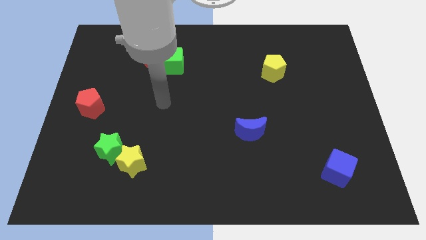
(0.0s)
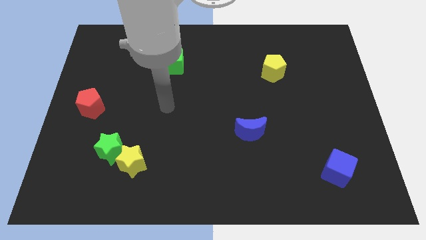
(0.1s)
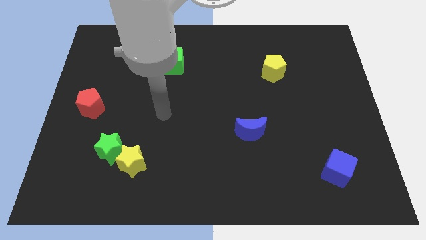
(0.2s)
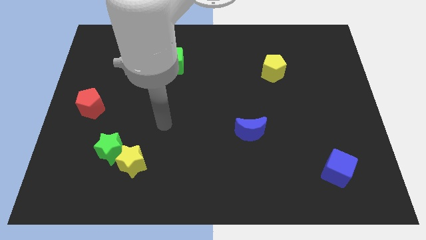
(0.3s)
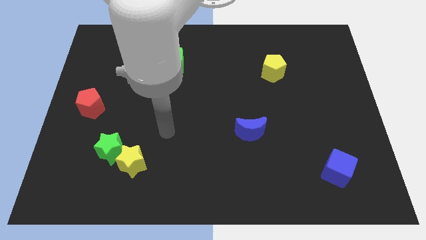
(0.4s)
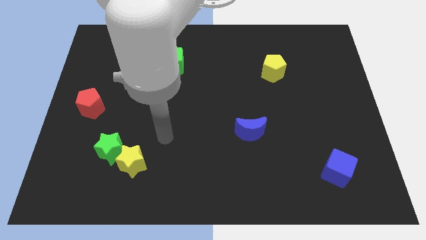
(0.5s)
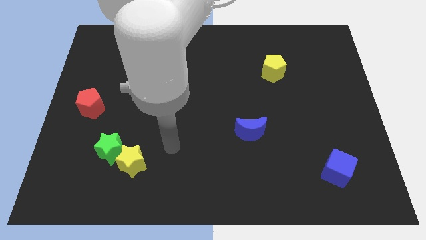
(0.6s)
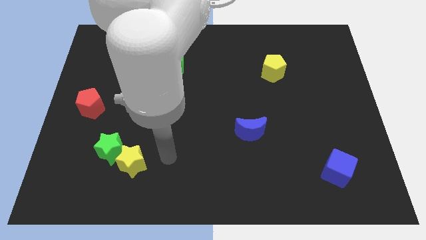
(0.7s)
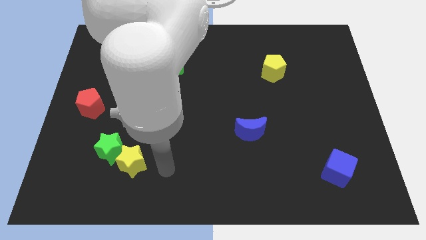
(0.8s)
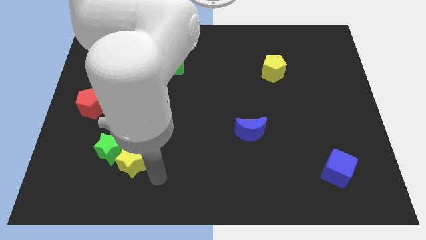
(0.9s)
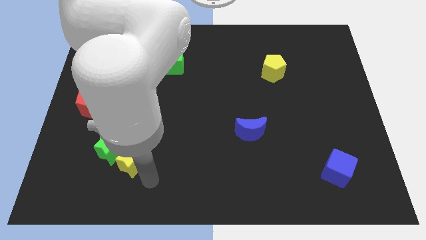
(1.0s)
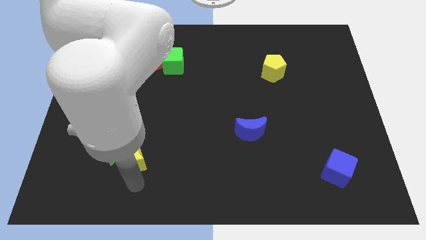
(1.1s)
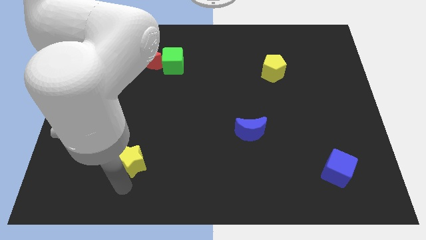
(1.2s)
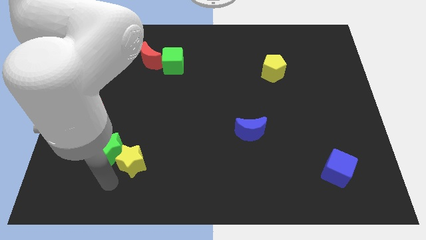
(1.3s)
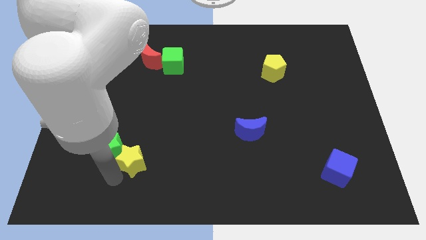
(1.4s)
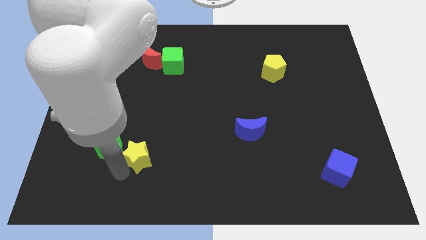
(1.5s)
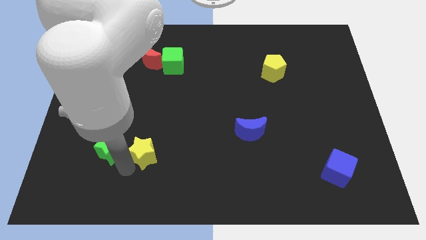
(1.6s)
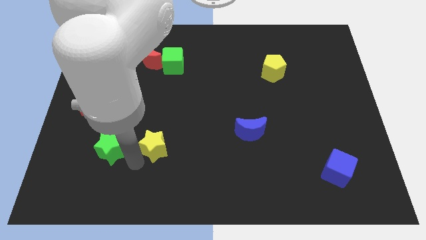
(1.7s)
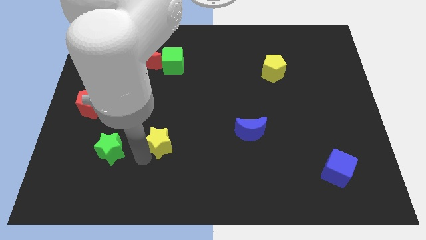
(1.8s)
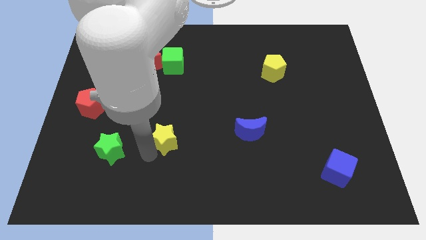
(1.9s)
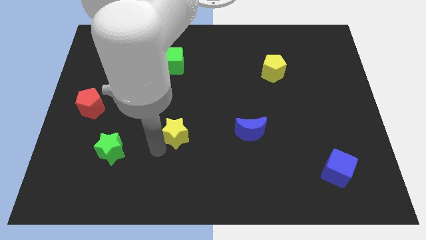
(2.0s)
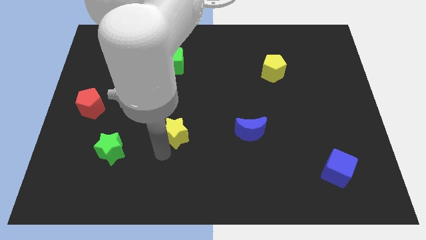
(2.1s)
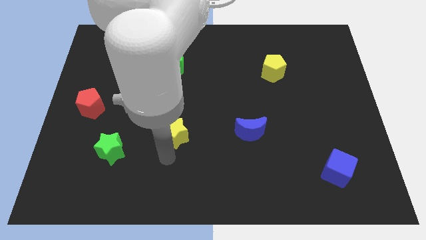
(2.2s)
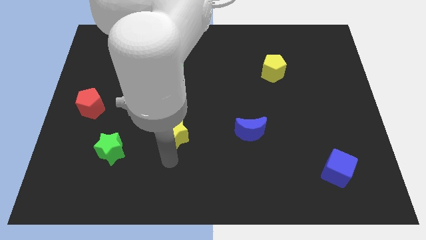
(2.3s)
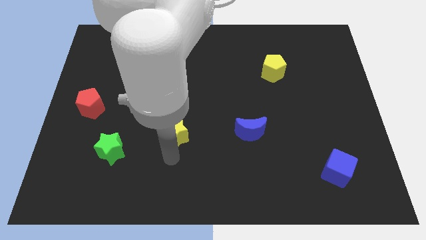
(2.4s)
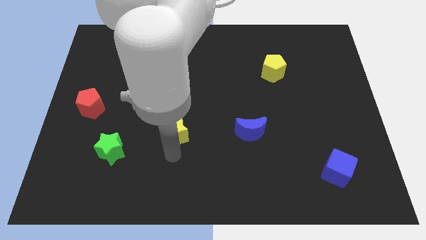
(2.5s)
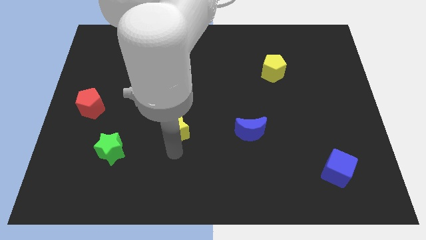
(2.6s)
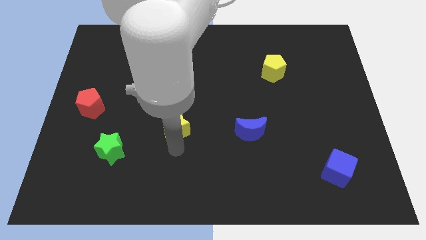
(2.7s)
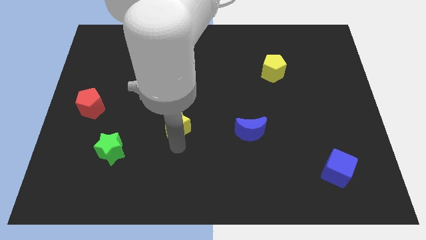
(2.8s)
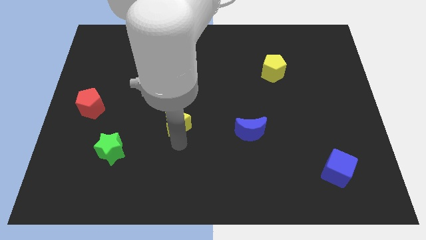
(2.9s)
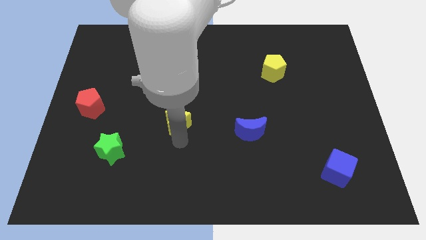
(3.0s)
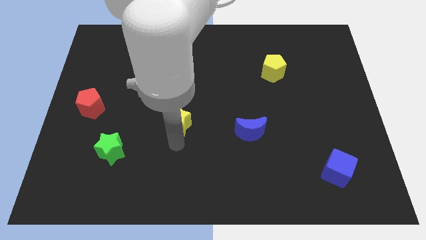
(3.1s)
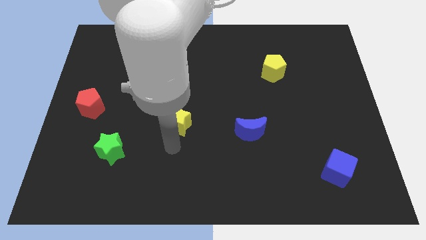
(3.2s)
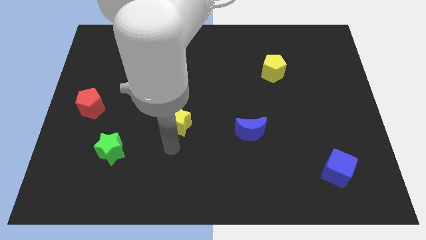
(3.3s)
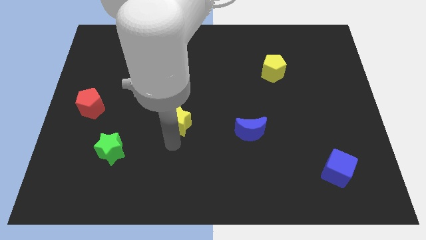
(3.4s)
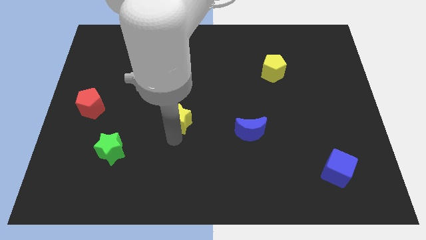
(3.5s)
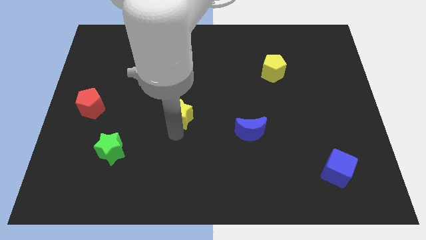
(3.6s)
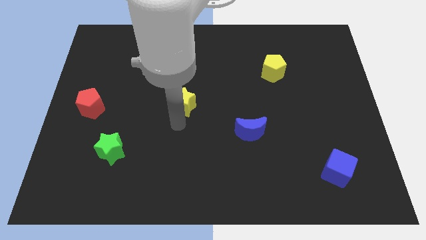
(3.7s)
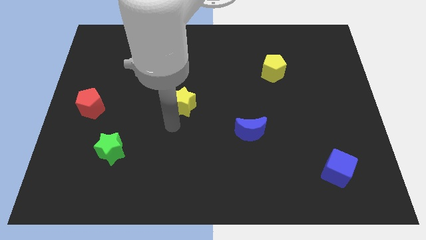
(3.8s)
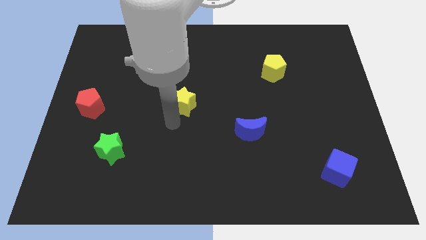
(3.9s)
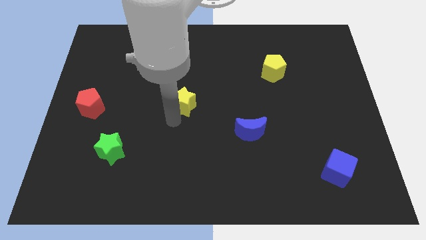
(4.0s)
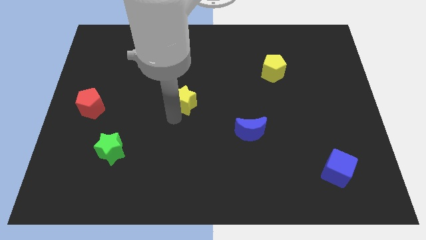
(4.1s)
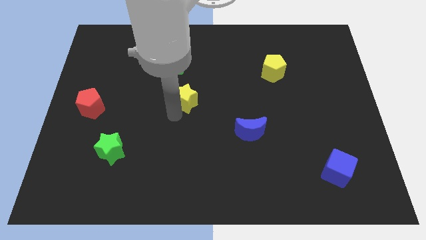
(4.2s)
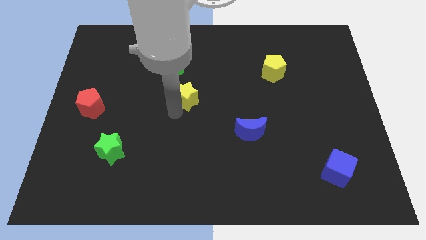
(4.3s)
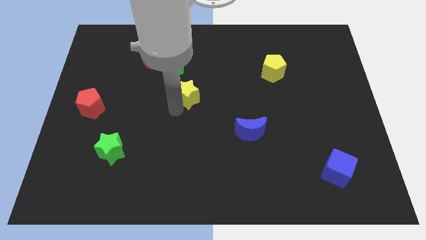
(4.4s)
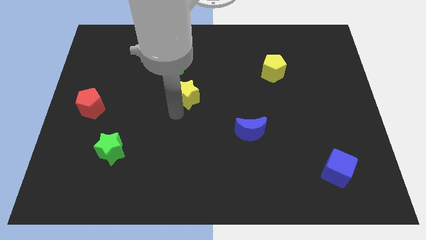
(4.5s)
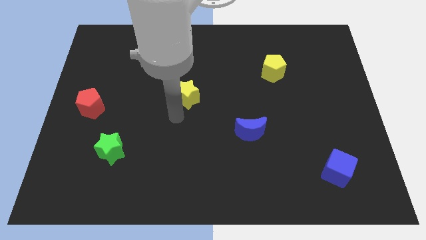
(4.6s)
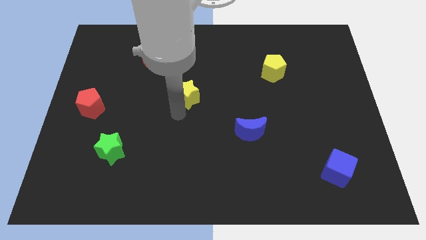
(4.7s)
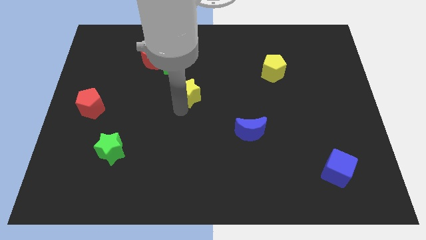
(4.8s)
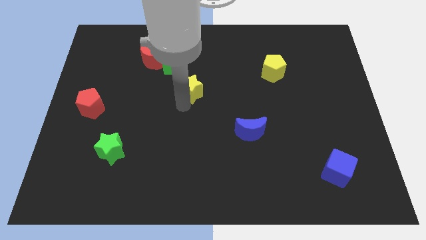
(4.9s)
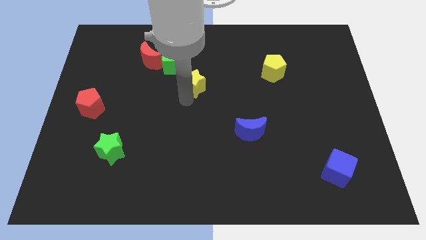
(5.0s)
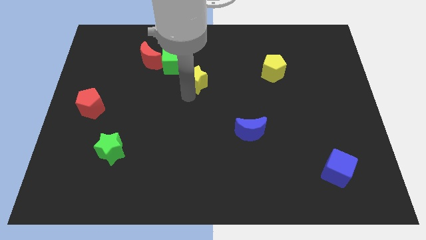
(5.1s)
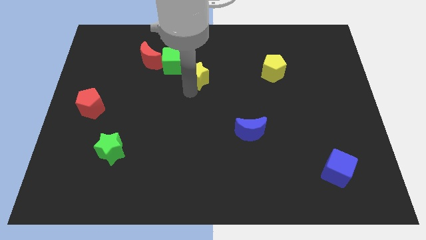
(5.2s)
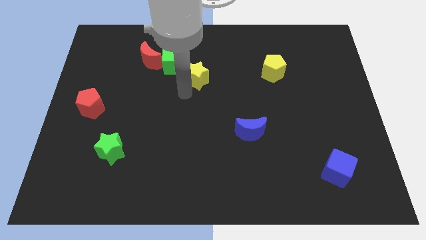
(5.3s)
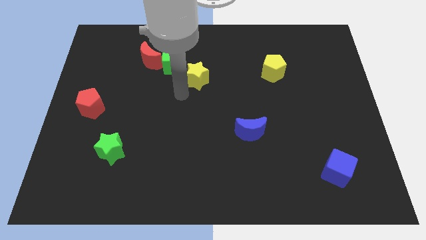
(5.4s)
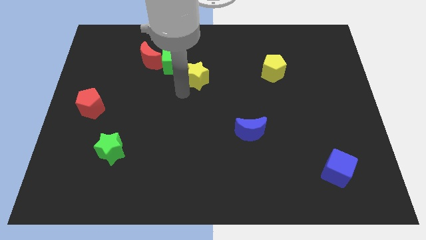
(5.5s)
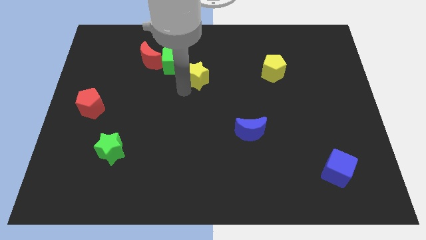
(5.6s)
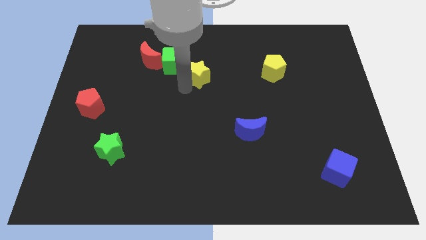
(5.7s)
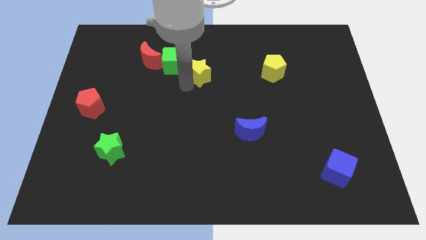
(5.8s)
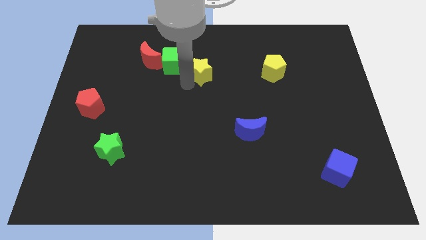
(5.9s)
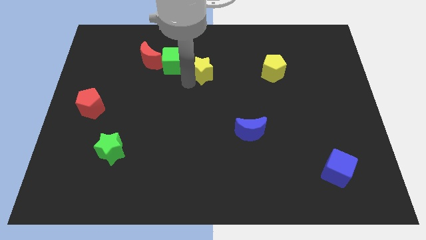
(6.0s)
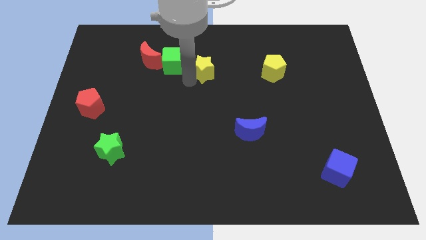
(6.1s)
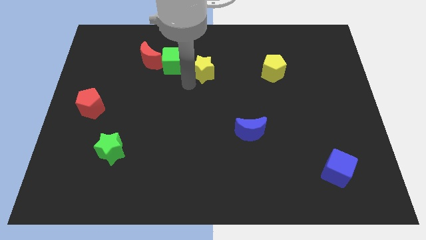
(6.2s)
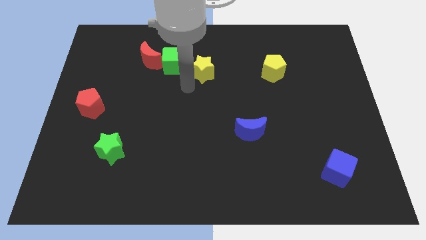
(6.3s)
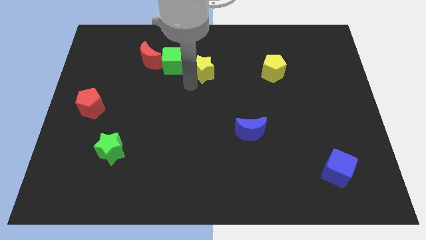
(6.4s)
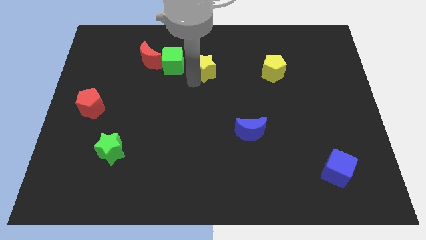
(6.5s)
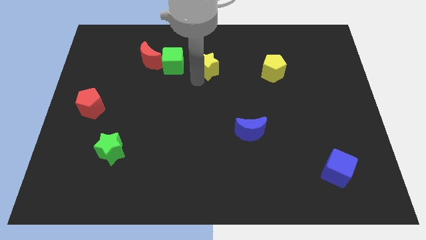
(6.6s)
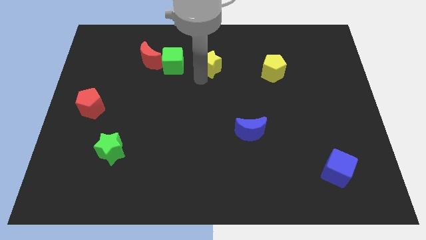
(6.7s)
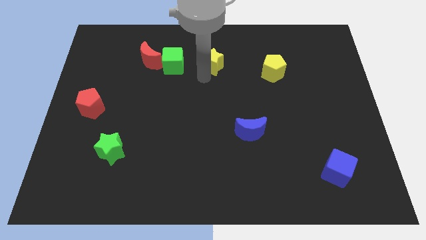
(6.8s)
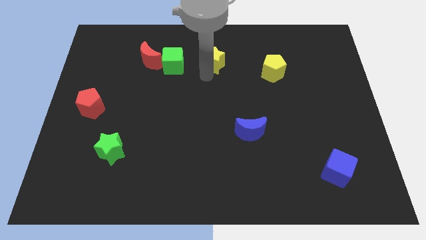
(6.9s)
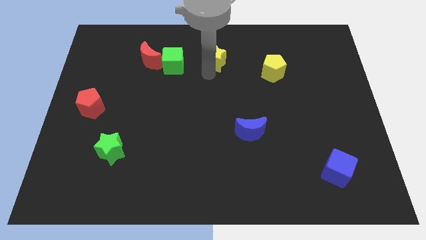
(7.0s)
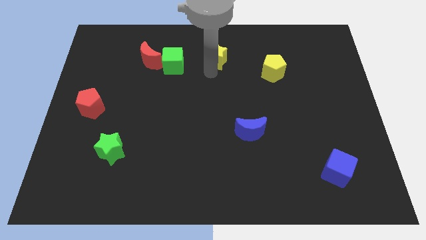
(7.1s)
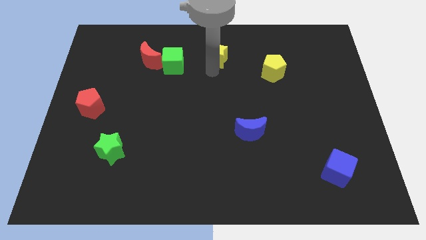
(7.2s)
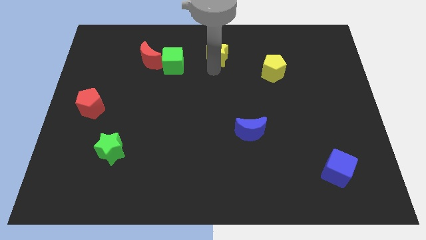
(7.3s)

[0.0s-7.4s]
put the yellow star to the top
